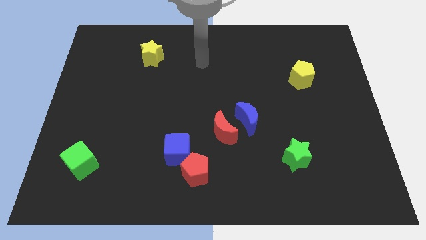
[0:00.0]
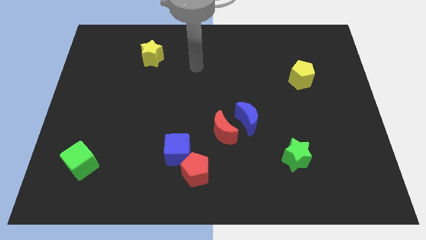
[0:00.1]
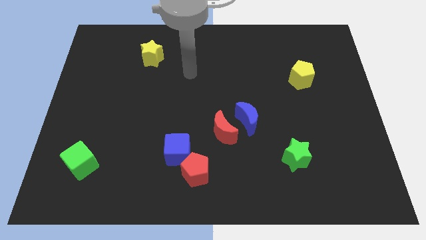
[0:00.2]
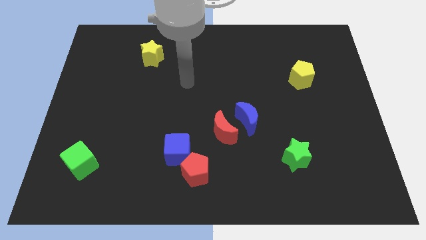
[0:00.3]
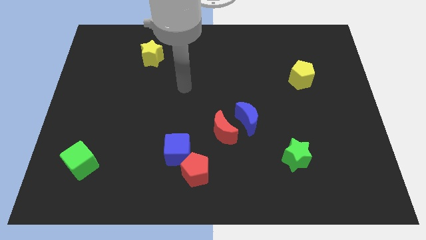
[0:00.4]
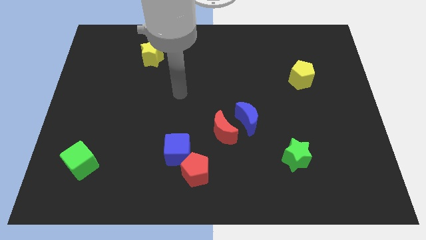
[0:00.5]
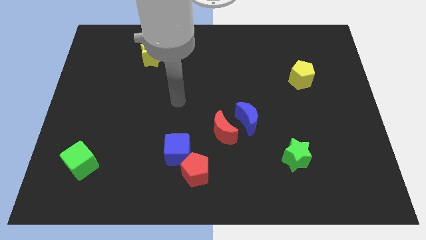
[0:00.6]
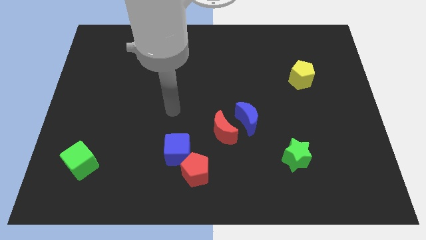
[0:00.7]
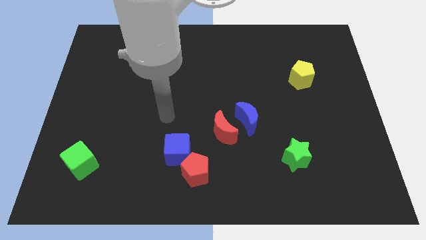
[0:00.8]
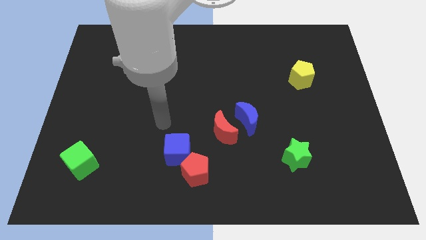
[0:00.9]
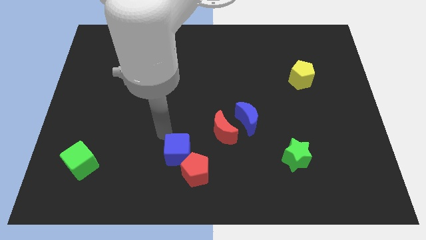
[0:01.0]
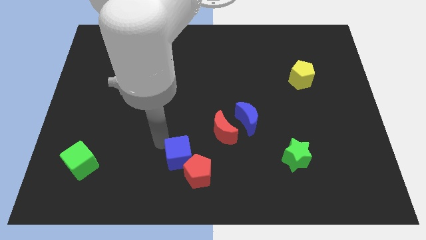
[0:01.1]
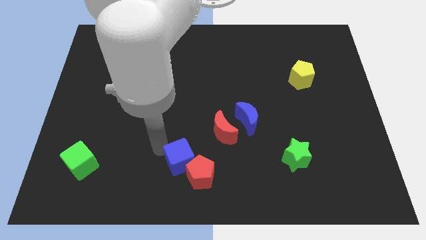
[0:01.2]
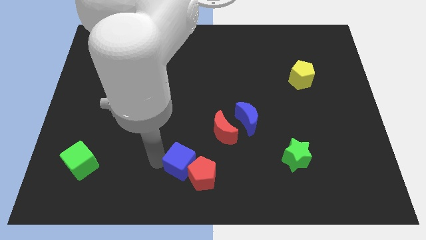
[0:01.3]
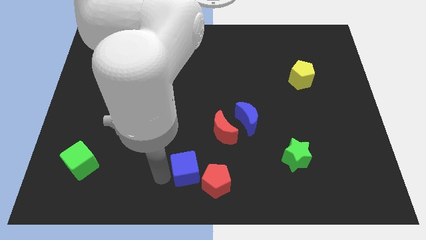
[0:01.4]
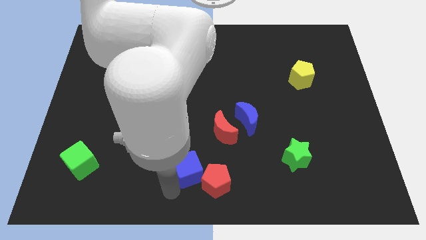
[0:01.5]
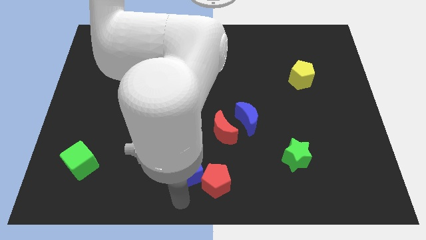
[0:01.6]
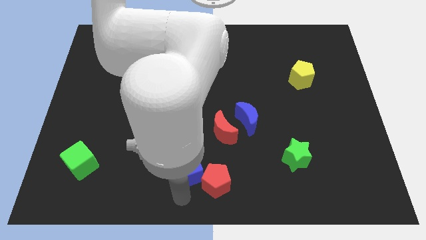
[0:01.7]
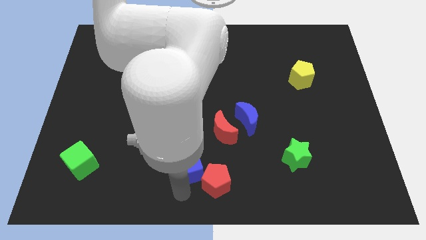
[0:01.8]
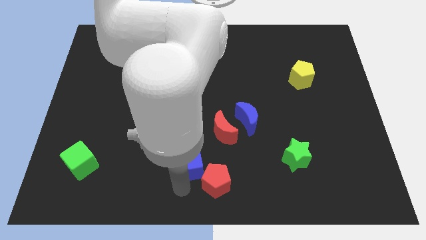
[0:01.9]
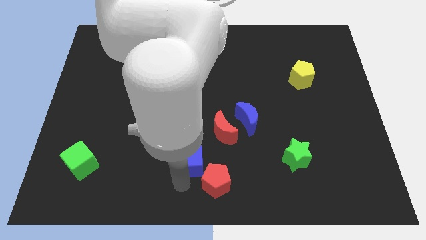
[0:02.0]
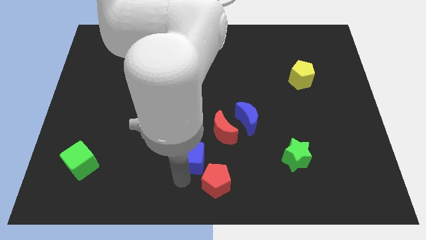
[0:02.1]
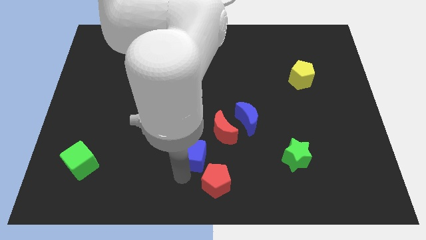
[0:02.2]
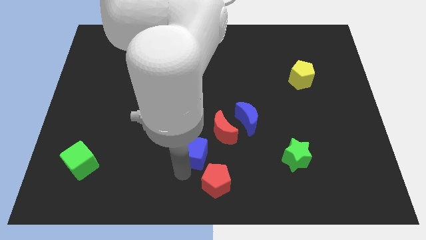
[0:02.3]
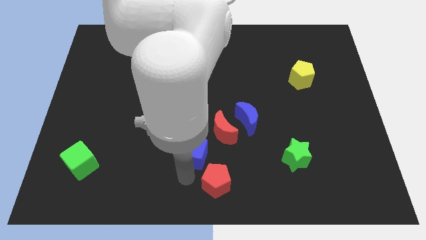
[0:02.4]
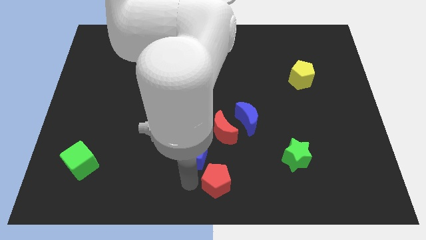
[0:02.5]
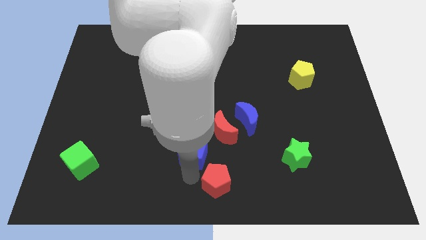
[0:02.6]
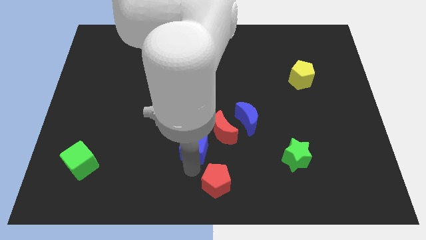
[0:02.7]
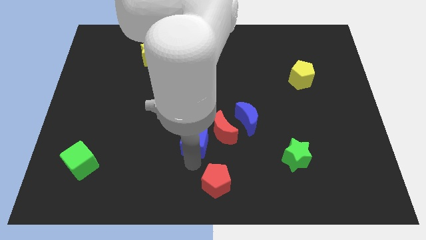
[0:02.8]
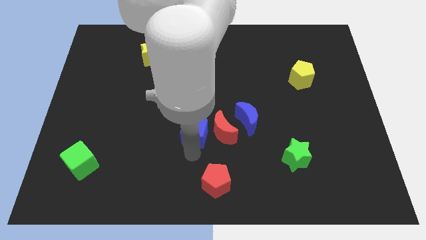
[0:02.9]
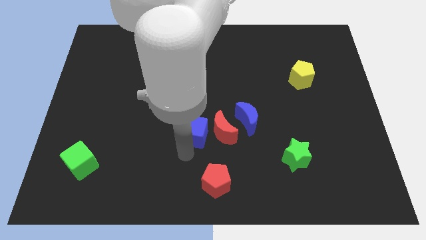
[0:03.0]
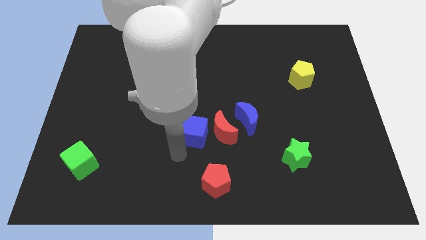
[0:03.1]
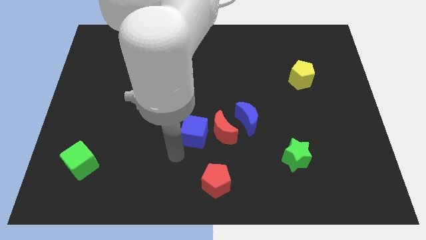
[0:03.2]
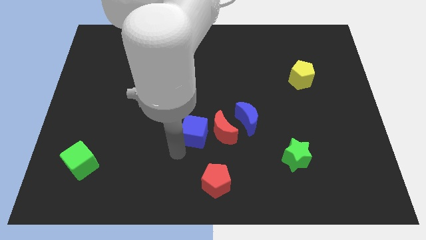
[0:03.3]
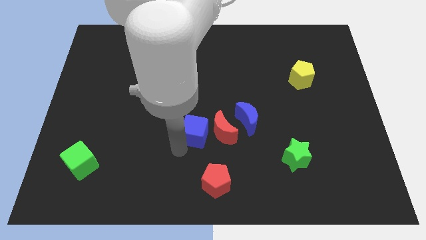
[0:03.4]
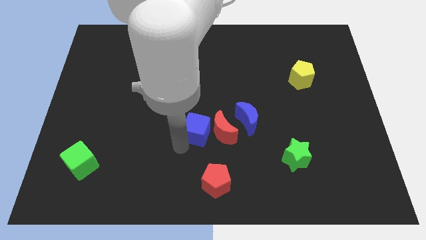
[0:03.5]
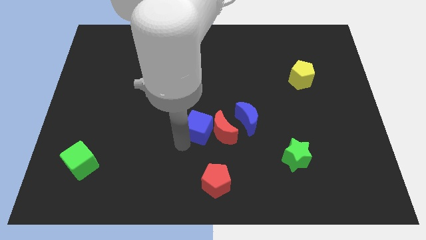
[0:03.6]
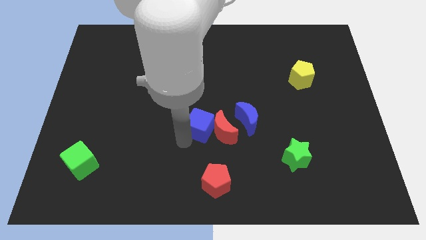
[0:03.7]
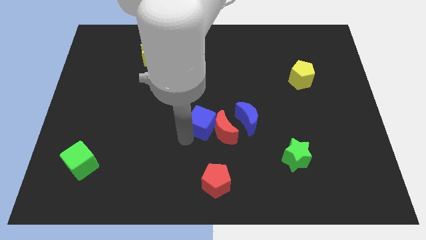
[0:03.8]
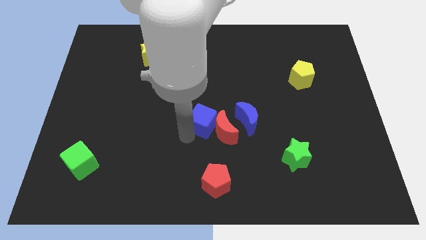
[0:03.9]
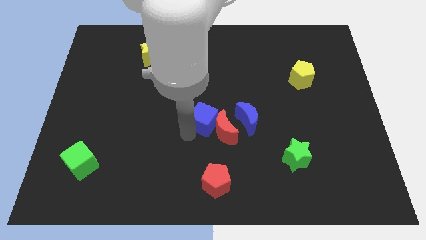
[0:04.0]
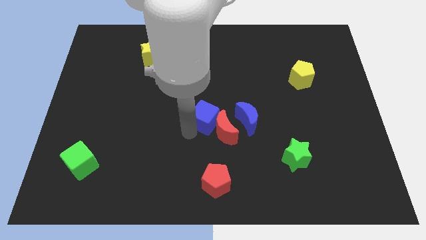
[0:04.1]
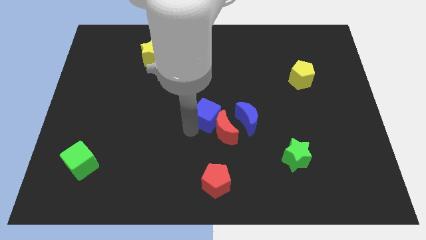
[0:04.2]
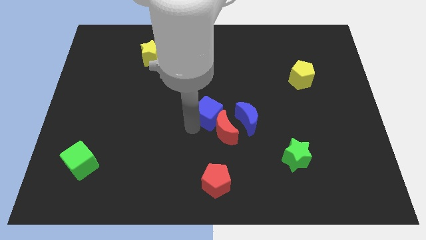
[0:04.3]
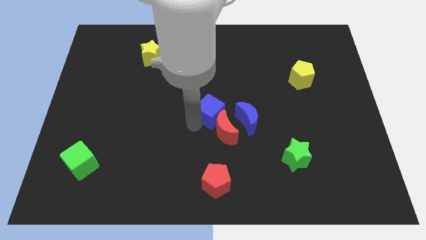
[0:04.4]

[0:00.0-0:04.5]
push the blue cube to the top left of the blue moon

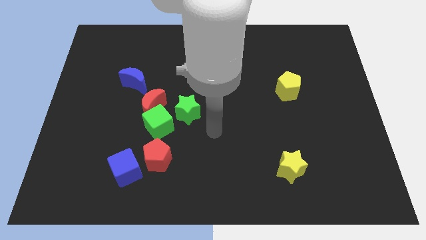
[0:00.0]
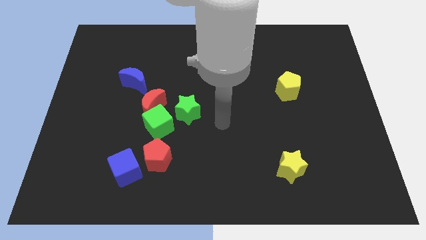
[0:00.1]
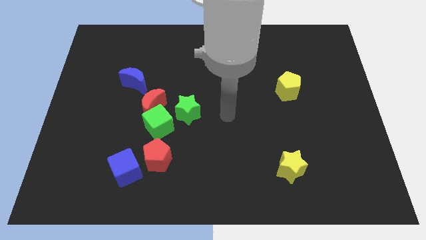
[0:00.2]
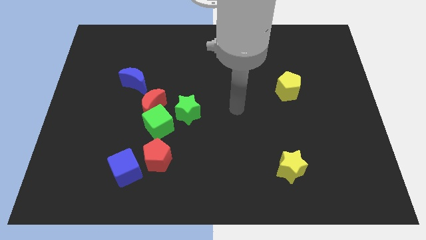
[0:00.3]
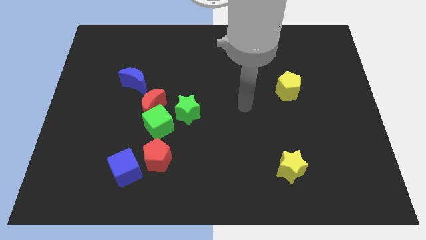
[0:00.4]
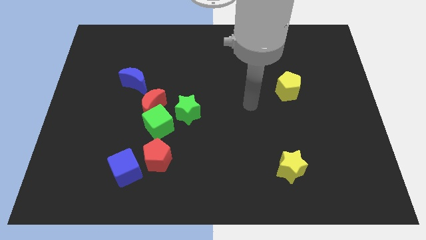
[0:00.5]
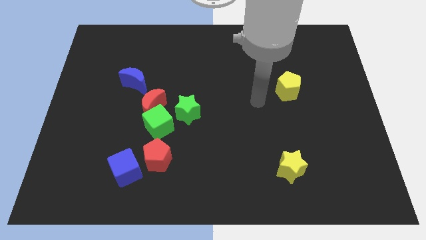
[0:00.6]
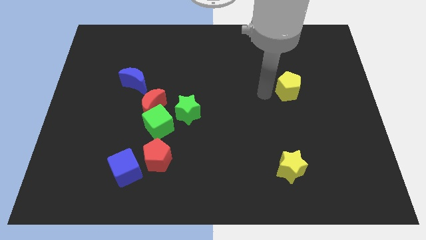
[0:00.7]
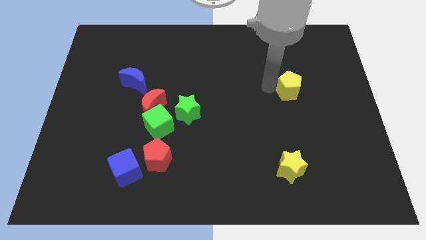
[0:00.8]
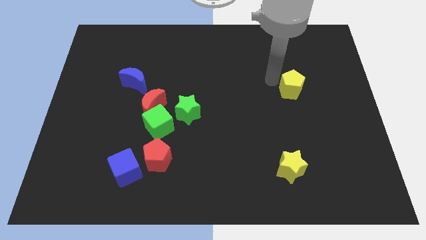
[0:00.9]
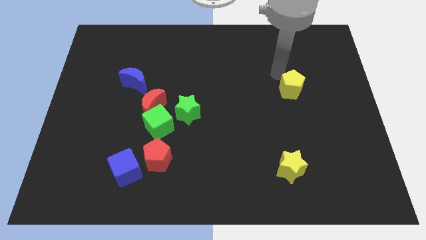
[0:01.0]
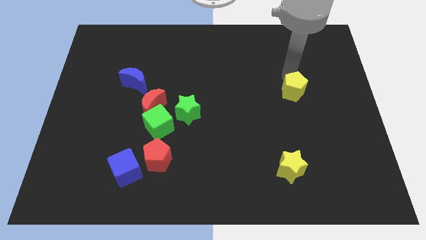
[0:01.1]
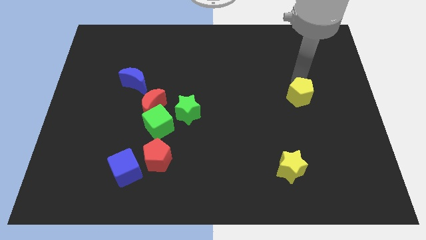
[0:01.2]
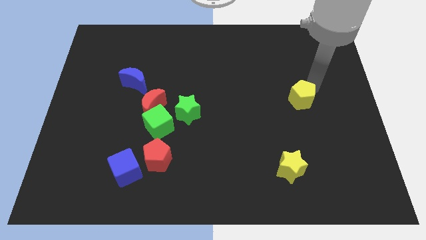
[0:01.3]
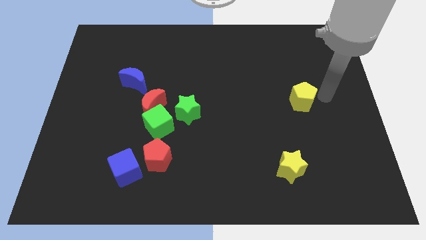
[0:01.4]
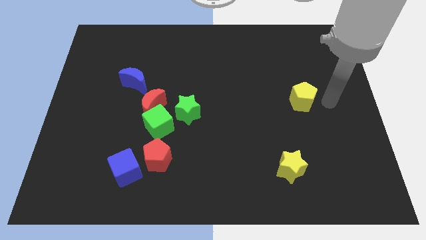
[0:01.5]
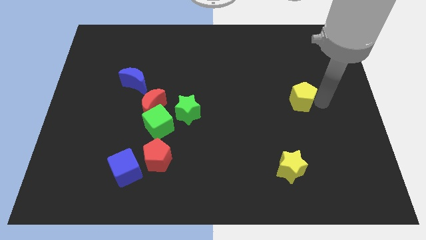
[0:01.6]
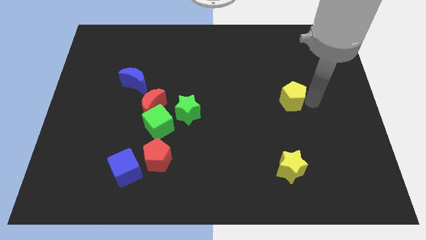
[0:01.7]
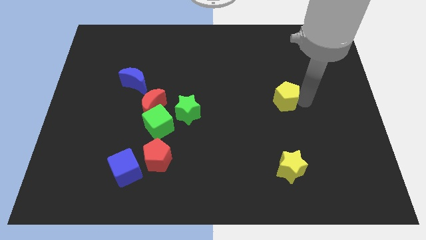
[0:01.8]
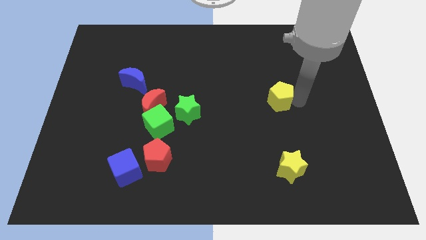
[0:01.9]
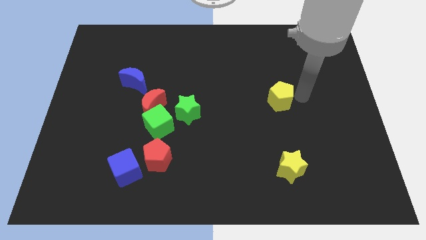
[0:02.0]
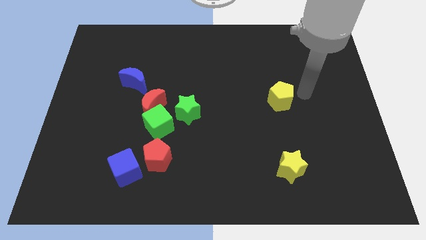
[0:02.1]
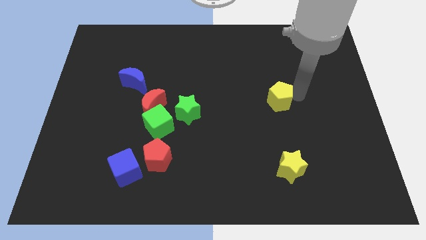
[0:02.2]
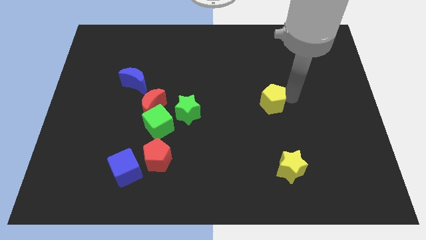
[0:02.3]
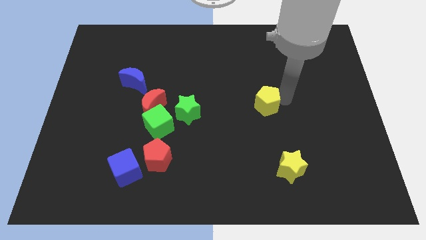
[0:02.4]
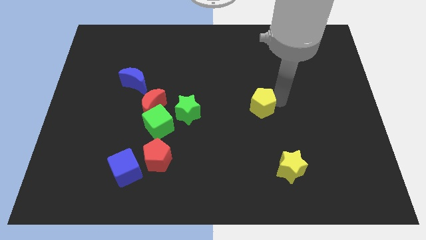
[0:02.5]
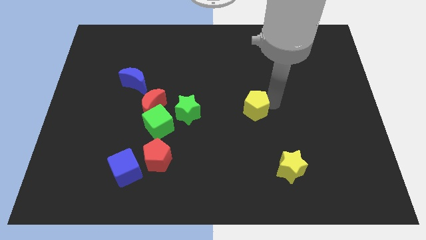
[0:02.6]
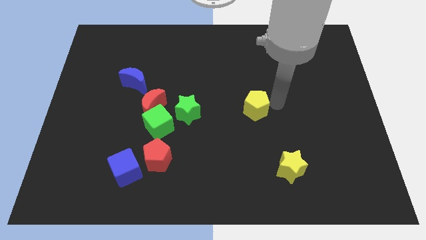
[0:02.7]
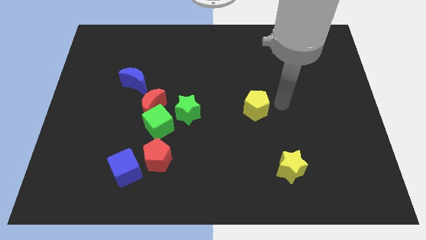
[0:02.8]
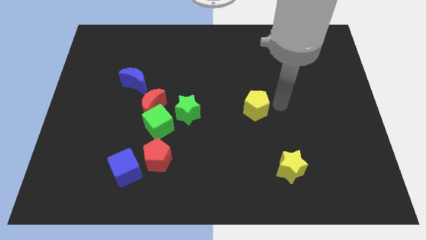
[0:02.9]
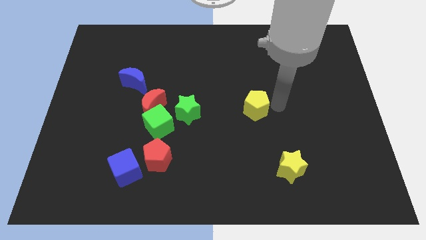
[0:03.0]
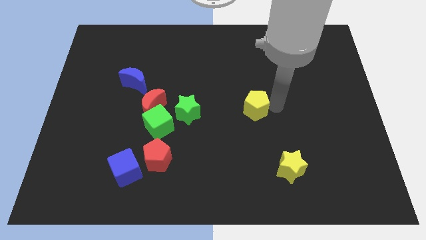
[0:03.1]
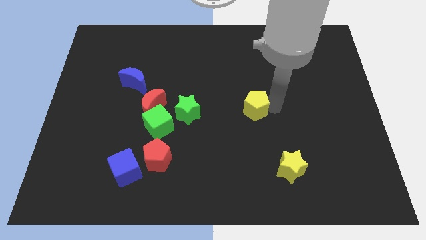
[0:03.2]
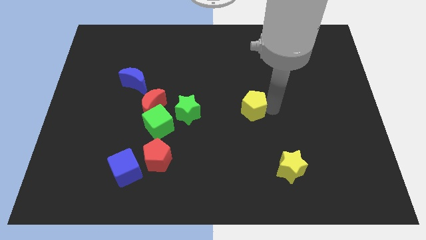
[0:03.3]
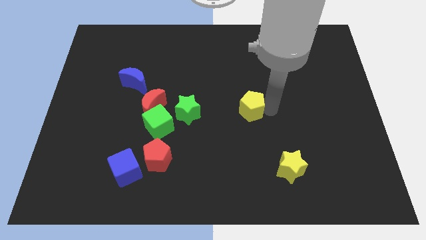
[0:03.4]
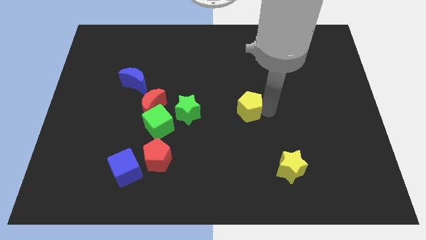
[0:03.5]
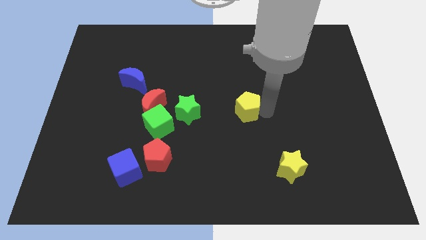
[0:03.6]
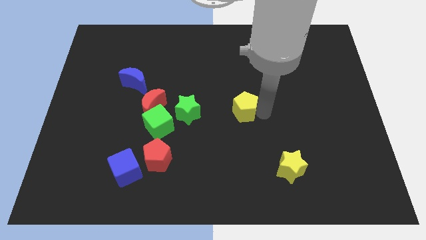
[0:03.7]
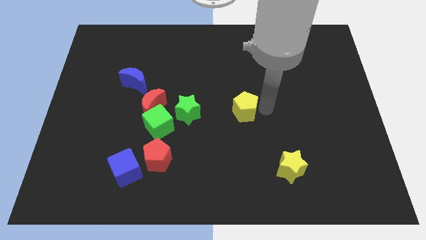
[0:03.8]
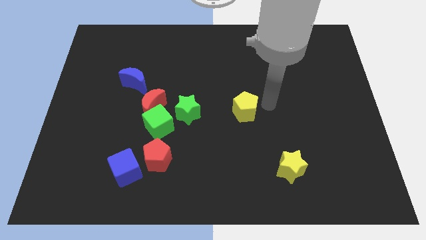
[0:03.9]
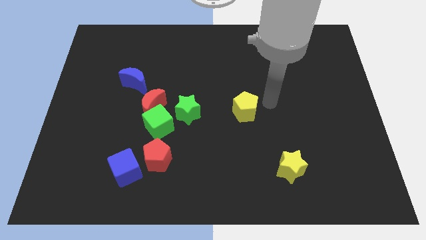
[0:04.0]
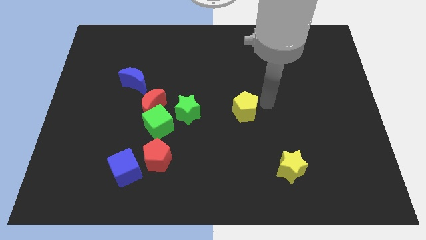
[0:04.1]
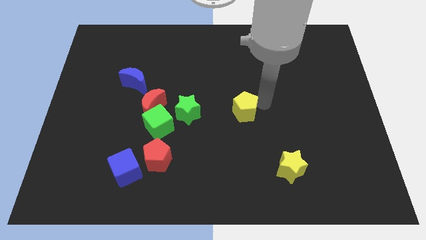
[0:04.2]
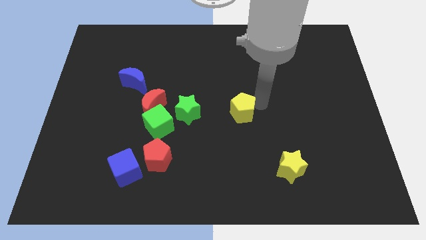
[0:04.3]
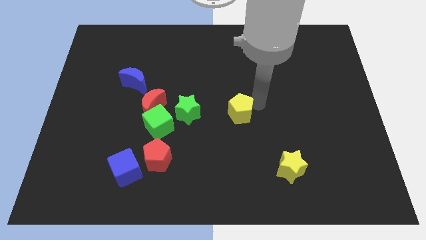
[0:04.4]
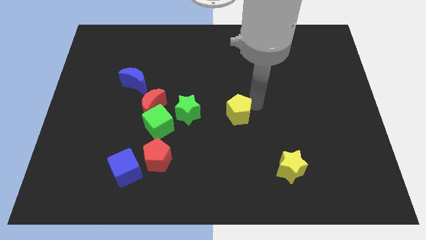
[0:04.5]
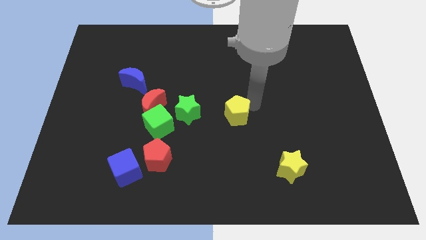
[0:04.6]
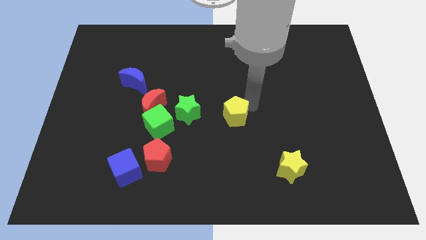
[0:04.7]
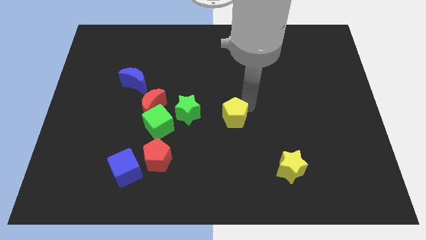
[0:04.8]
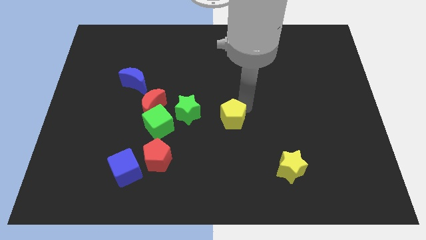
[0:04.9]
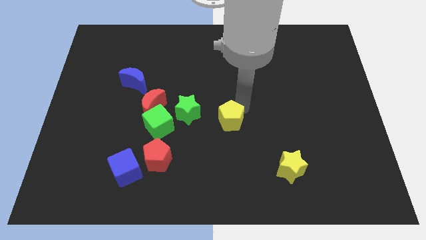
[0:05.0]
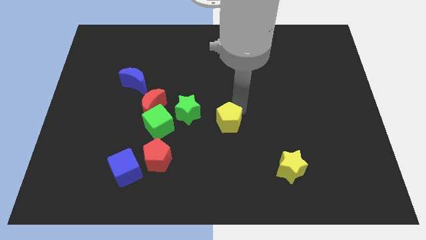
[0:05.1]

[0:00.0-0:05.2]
move the yellow pentagon right of the green cube
